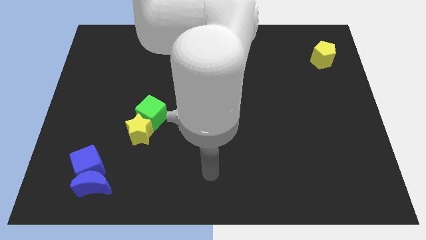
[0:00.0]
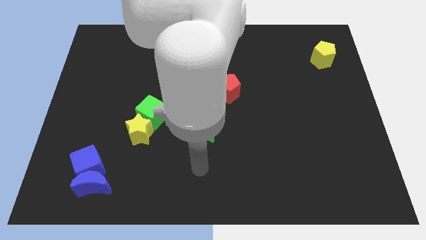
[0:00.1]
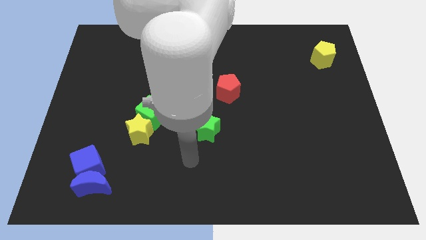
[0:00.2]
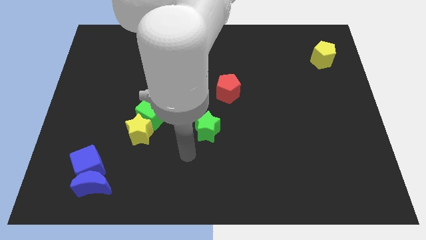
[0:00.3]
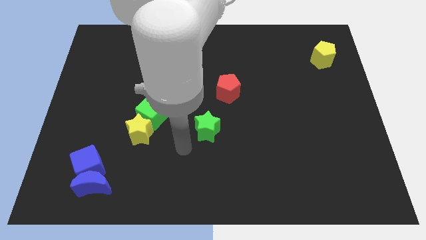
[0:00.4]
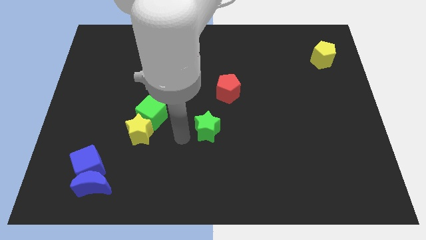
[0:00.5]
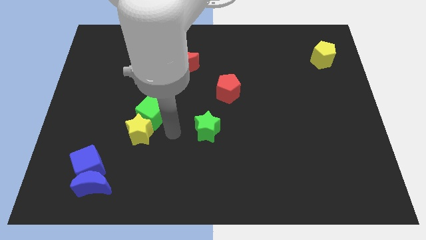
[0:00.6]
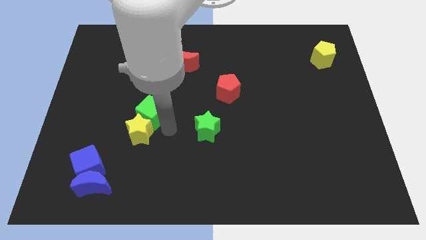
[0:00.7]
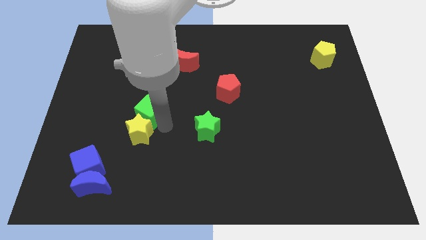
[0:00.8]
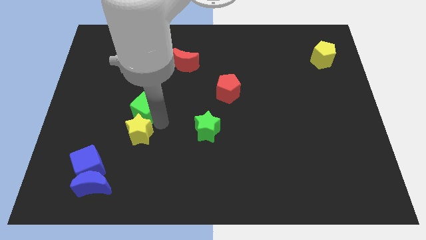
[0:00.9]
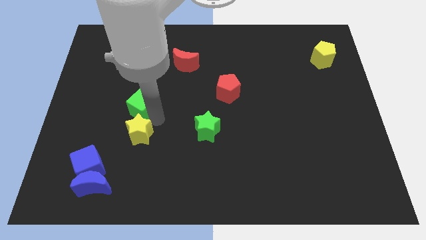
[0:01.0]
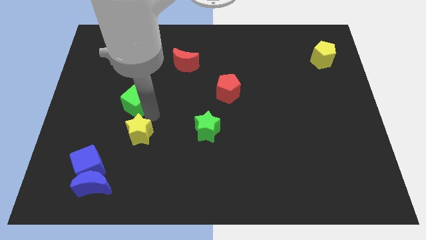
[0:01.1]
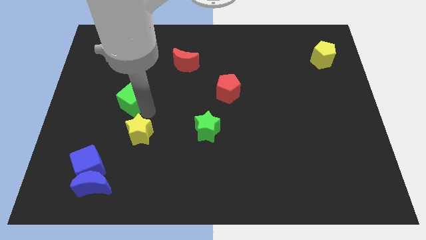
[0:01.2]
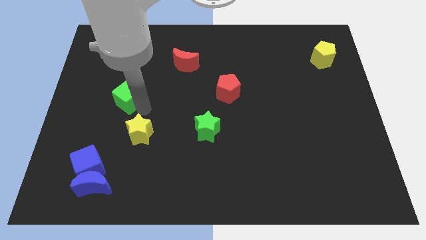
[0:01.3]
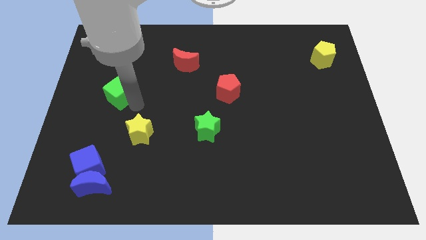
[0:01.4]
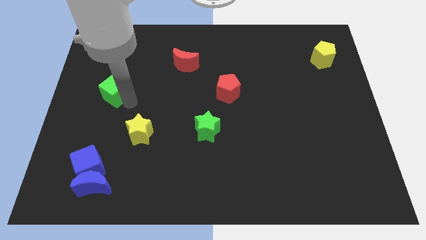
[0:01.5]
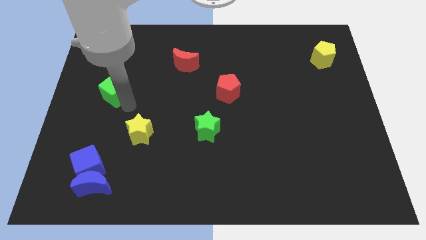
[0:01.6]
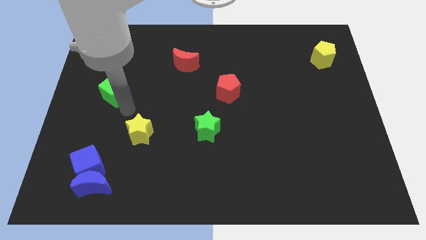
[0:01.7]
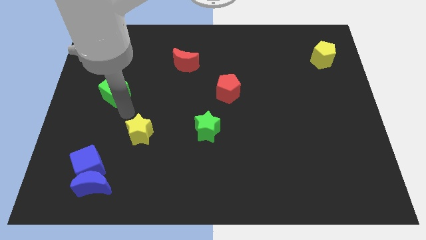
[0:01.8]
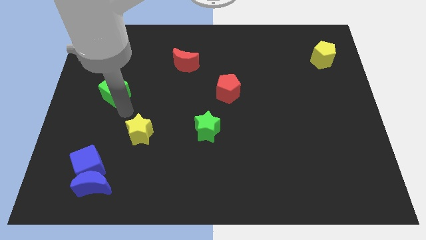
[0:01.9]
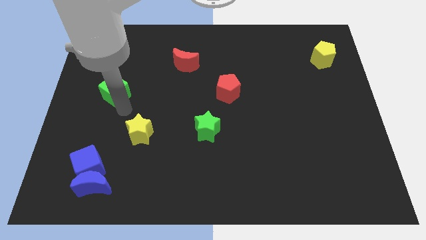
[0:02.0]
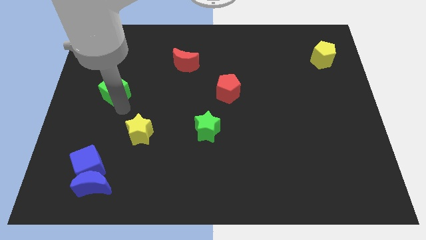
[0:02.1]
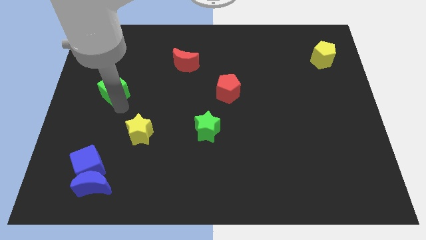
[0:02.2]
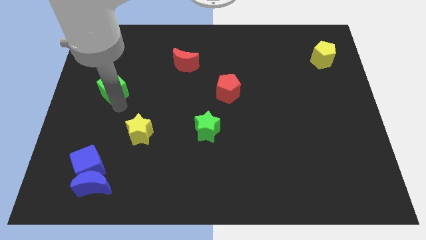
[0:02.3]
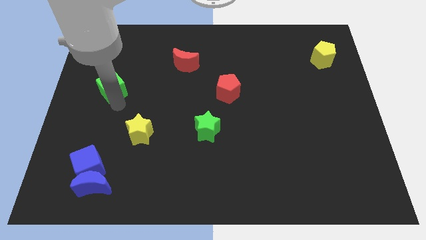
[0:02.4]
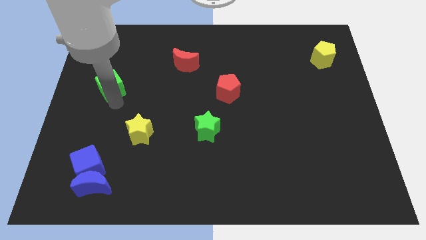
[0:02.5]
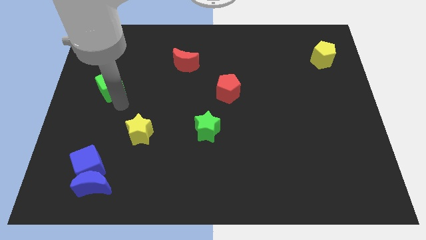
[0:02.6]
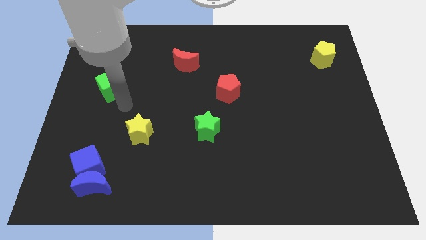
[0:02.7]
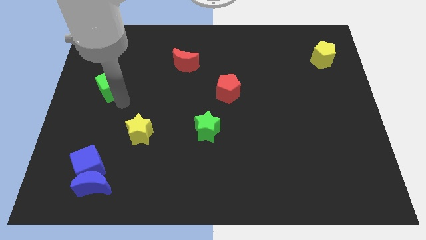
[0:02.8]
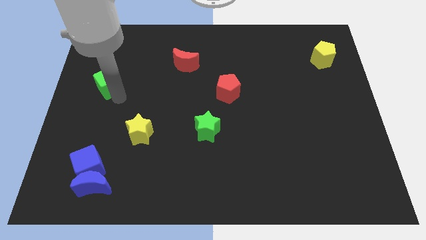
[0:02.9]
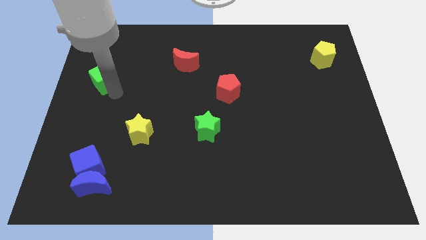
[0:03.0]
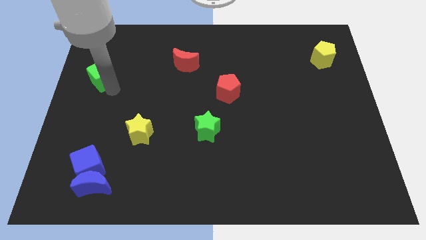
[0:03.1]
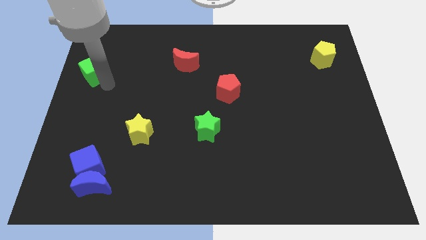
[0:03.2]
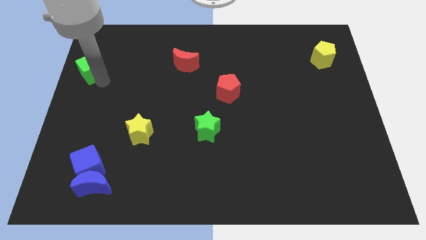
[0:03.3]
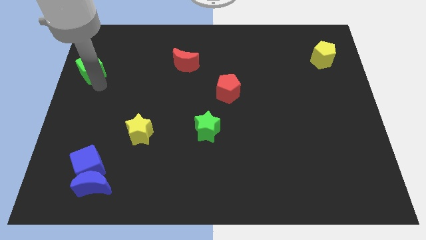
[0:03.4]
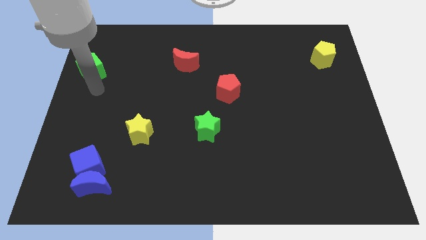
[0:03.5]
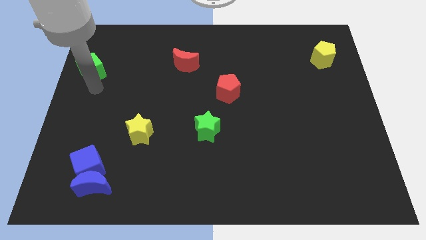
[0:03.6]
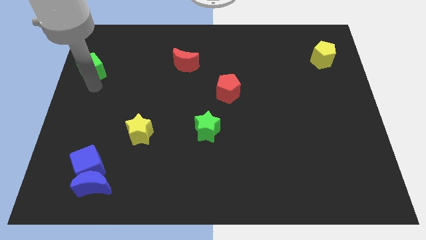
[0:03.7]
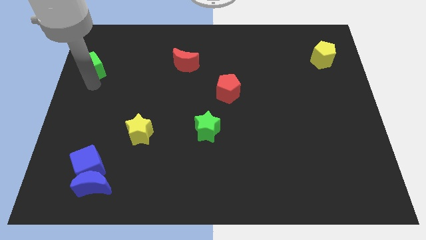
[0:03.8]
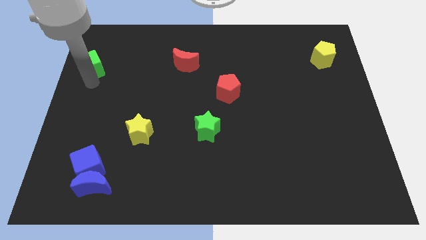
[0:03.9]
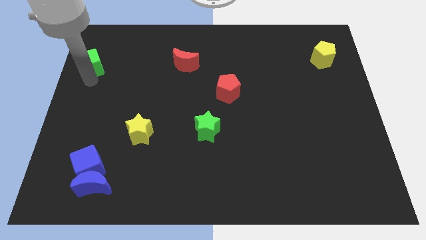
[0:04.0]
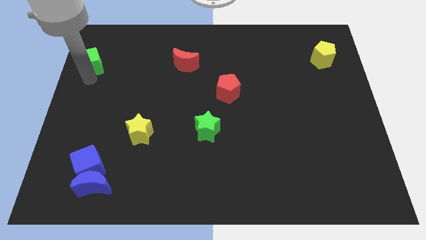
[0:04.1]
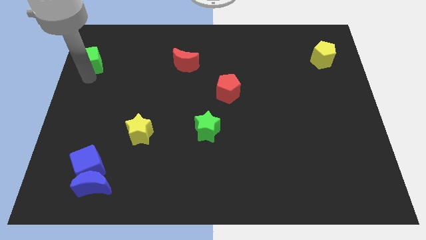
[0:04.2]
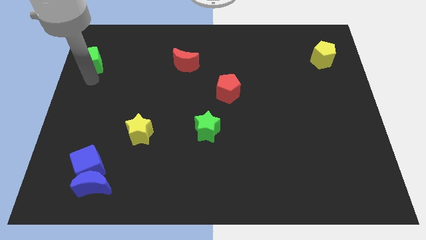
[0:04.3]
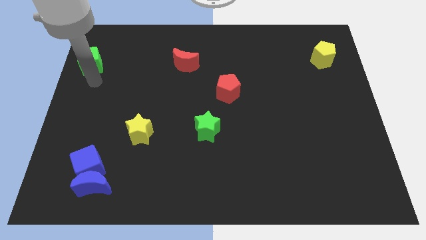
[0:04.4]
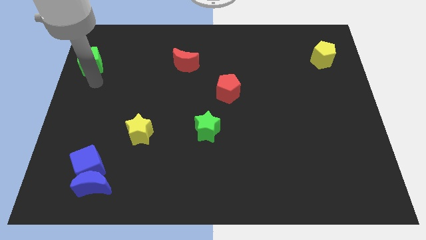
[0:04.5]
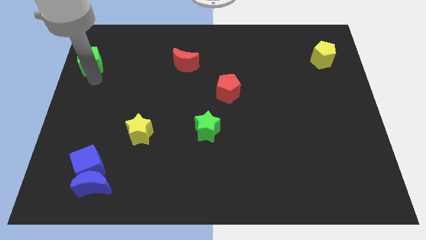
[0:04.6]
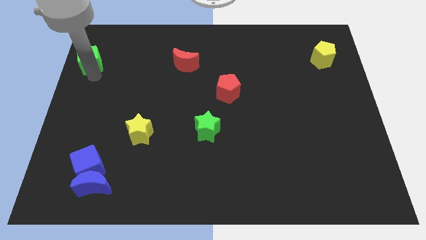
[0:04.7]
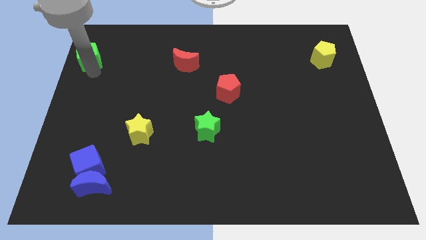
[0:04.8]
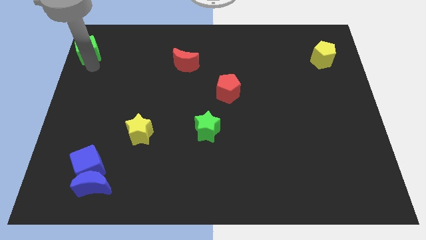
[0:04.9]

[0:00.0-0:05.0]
push the green cube to the upper left corner
